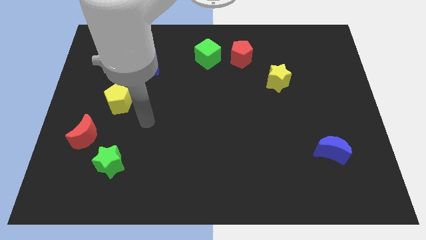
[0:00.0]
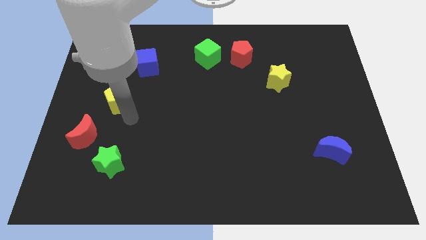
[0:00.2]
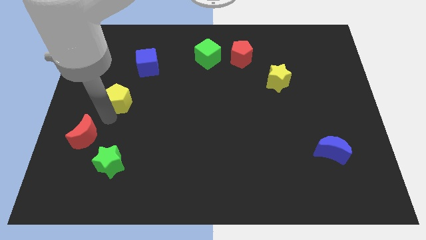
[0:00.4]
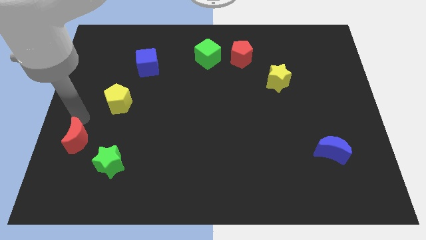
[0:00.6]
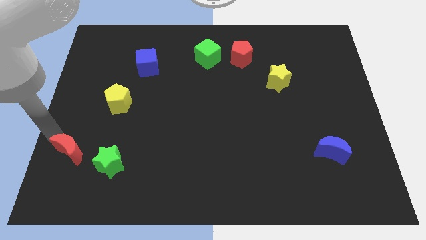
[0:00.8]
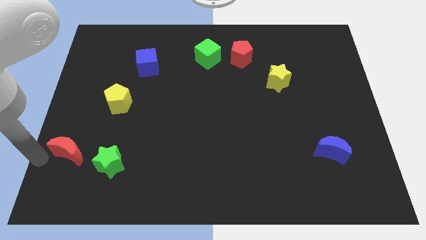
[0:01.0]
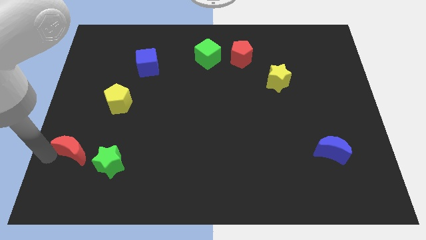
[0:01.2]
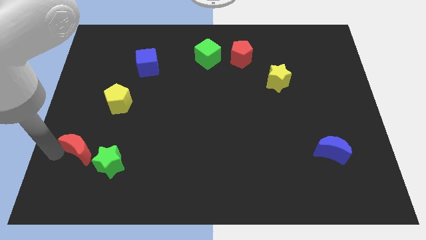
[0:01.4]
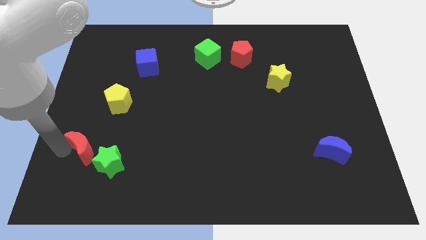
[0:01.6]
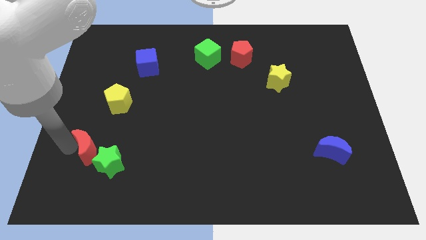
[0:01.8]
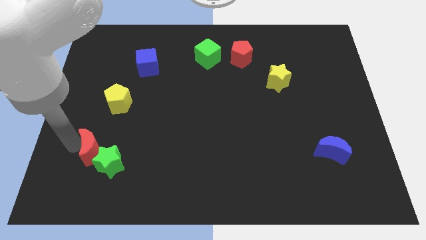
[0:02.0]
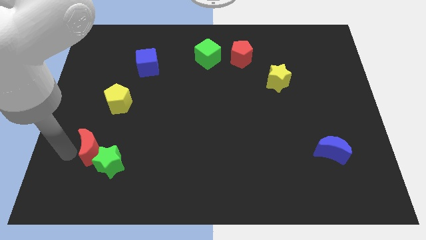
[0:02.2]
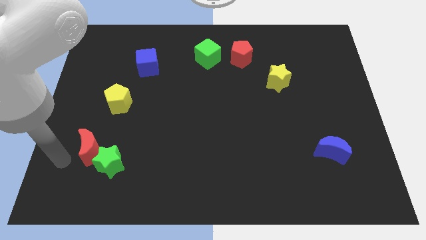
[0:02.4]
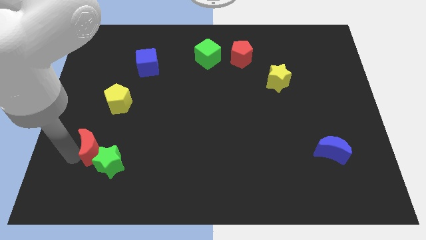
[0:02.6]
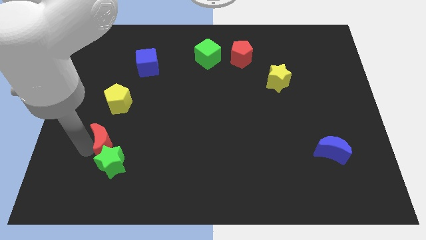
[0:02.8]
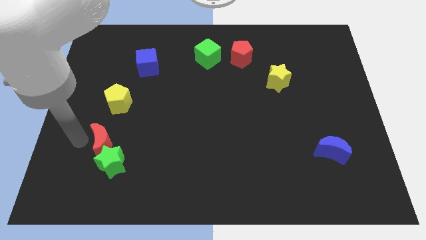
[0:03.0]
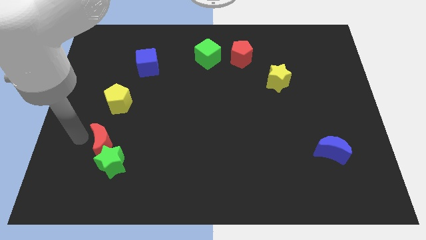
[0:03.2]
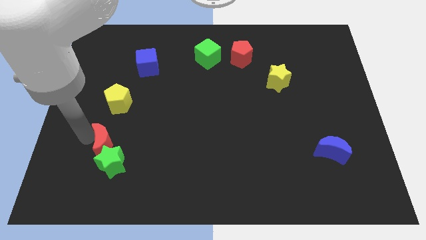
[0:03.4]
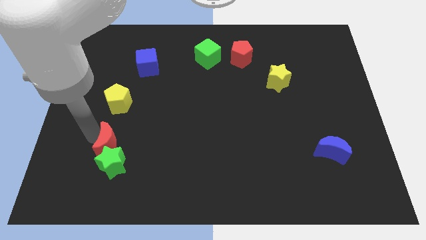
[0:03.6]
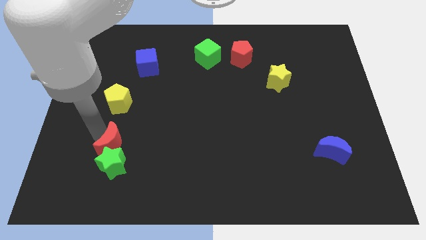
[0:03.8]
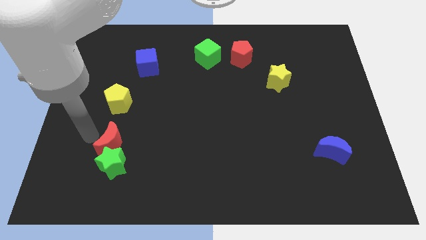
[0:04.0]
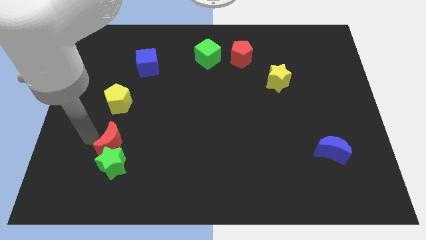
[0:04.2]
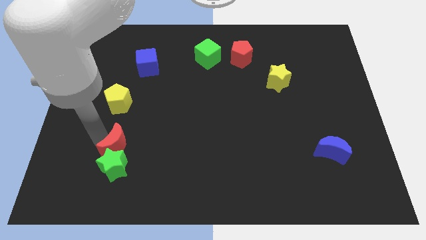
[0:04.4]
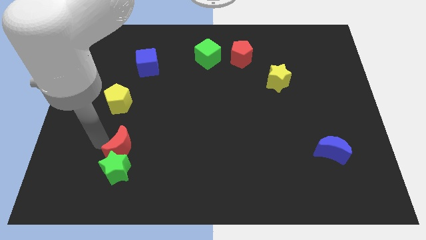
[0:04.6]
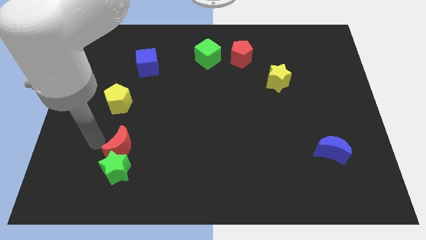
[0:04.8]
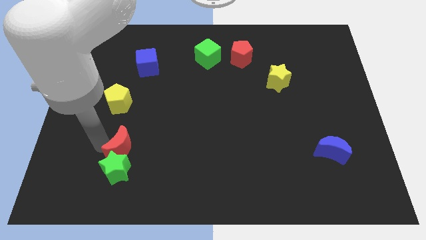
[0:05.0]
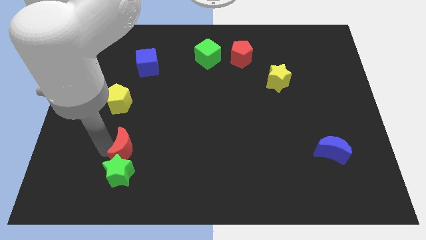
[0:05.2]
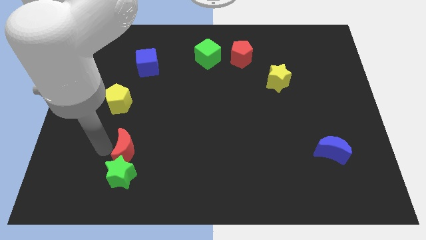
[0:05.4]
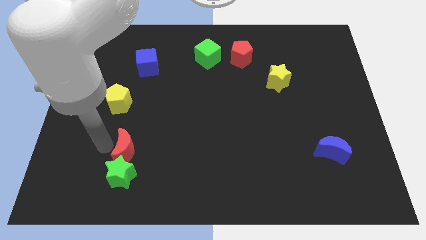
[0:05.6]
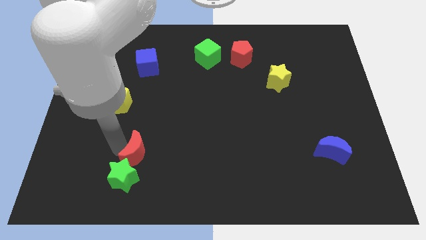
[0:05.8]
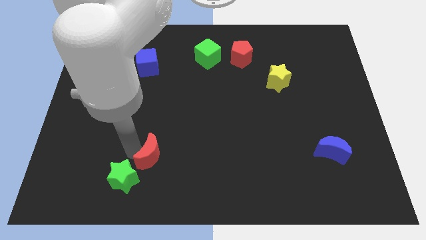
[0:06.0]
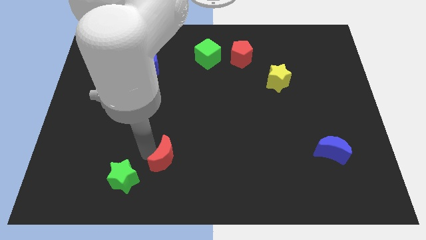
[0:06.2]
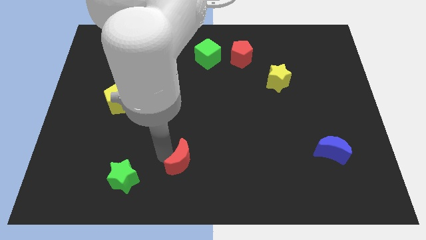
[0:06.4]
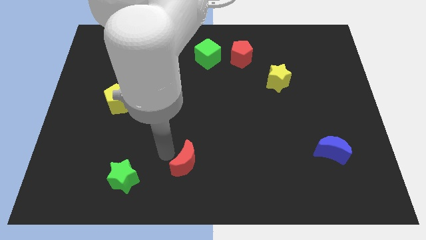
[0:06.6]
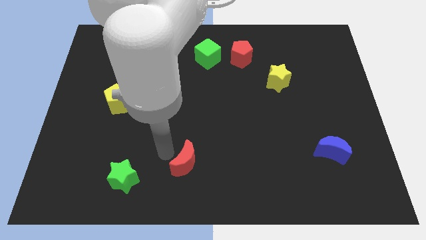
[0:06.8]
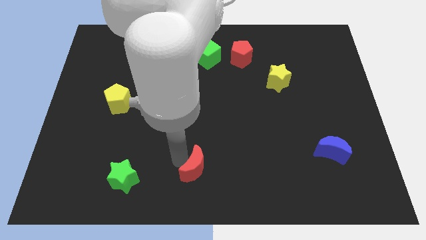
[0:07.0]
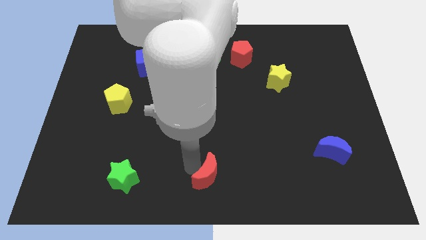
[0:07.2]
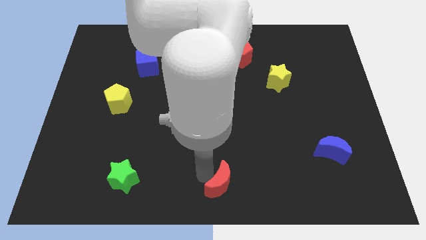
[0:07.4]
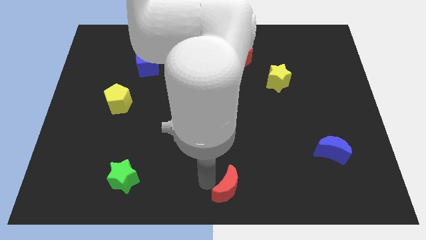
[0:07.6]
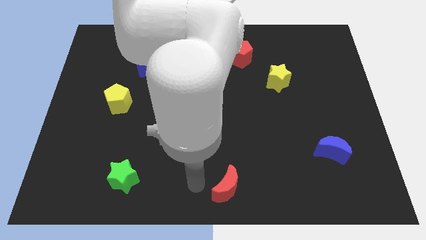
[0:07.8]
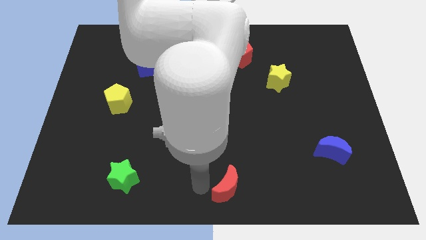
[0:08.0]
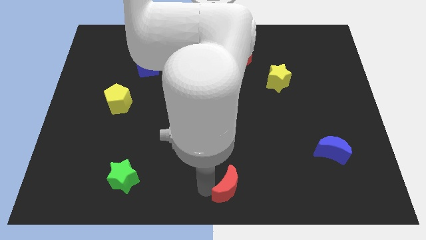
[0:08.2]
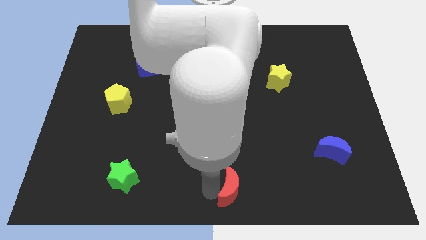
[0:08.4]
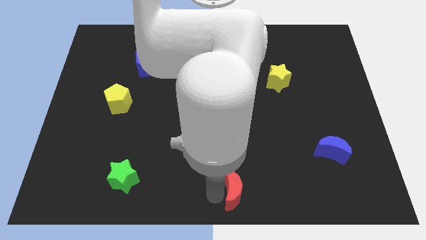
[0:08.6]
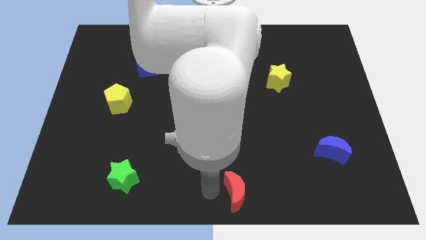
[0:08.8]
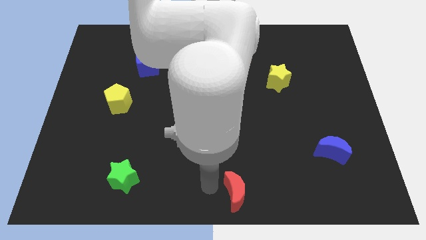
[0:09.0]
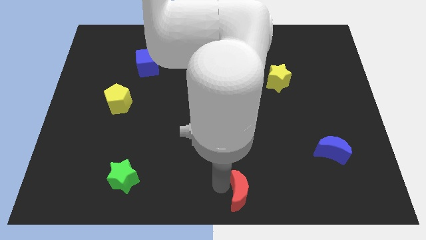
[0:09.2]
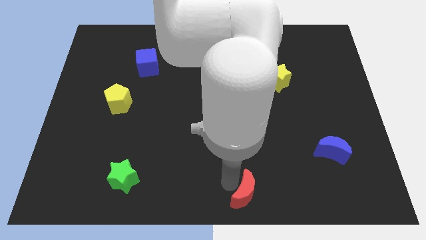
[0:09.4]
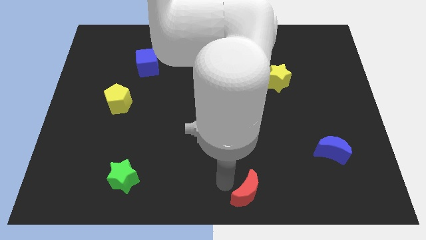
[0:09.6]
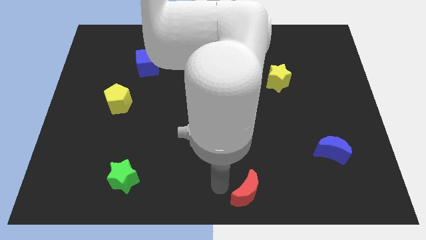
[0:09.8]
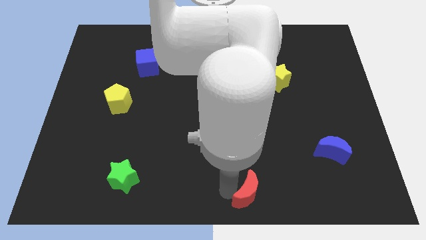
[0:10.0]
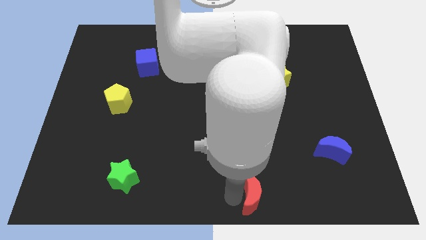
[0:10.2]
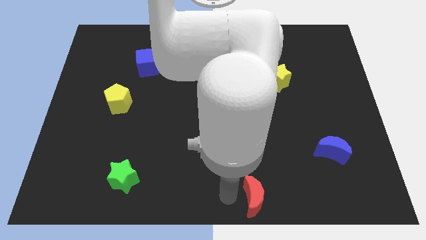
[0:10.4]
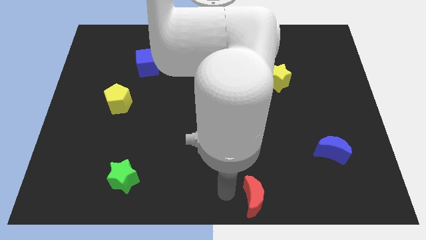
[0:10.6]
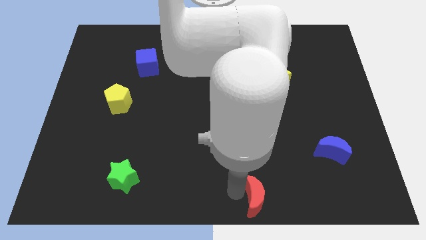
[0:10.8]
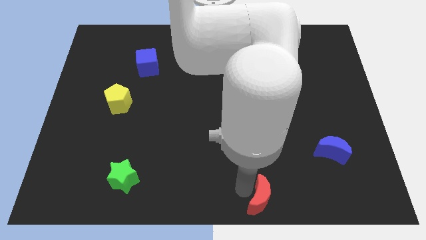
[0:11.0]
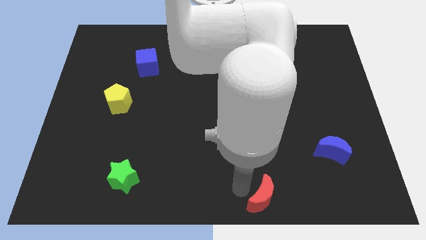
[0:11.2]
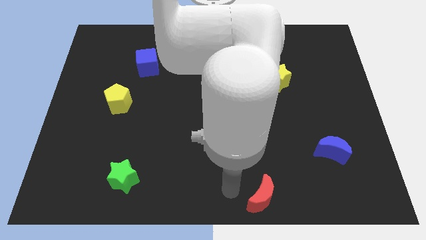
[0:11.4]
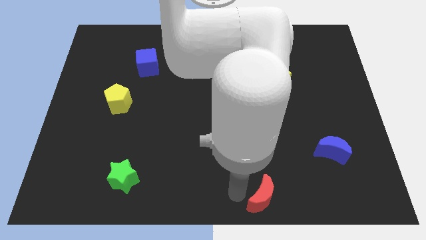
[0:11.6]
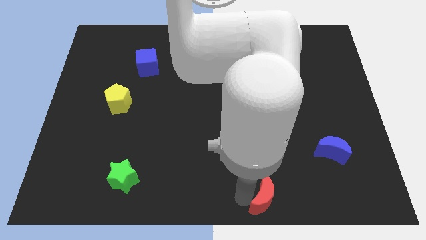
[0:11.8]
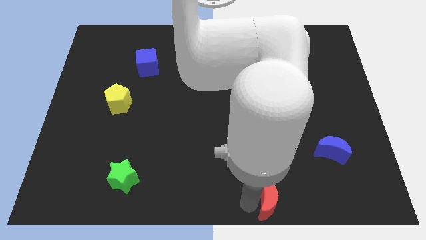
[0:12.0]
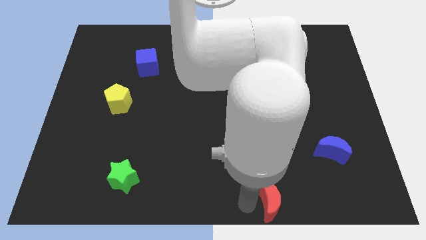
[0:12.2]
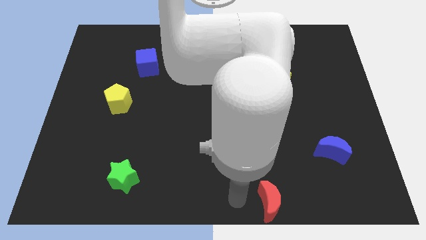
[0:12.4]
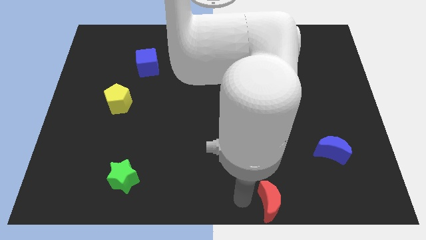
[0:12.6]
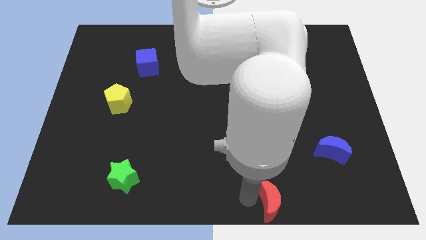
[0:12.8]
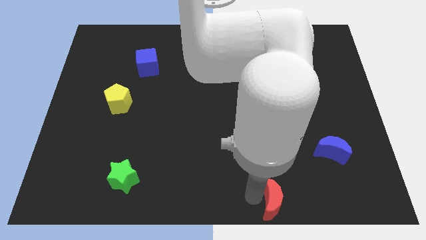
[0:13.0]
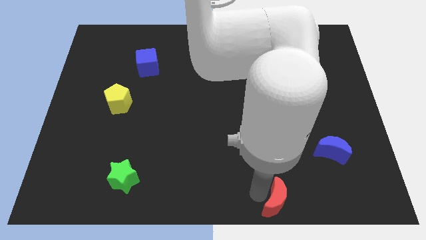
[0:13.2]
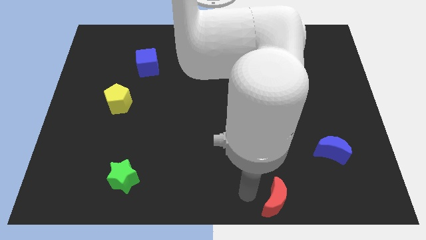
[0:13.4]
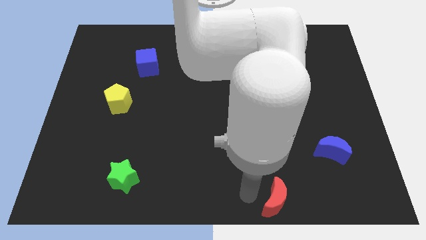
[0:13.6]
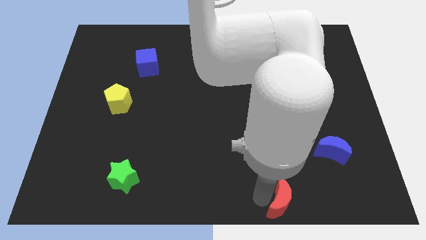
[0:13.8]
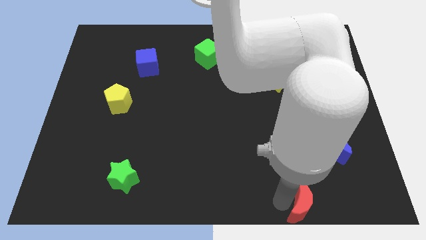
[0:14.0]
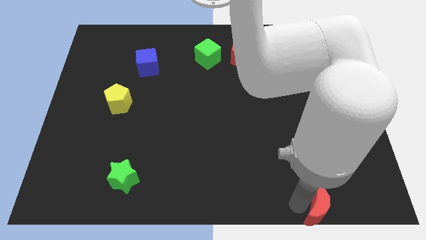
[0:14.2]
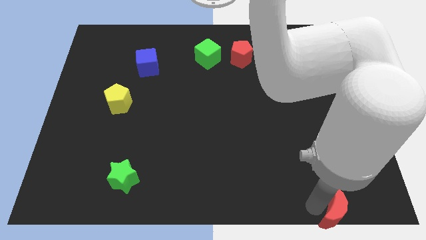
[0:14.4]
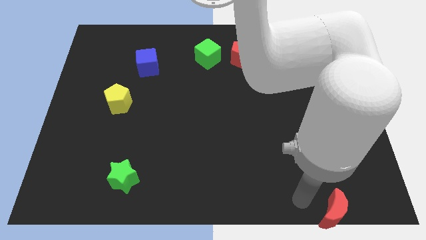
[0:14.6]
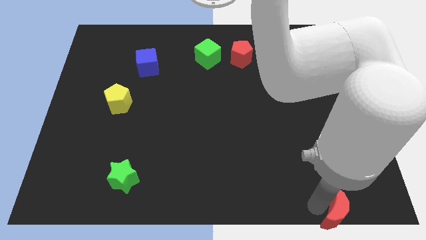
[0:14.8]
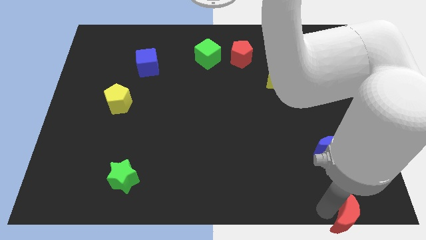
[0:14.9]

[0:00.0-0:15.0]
push the red moon to the bottom right of the board
